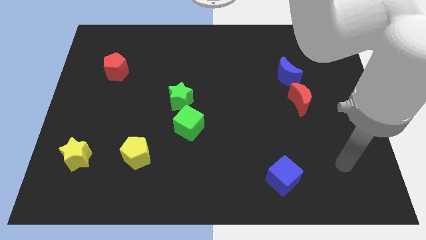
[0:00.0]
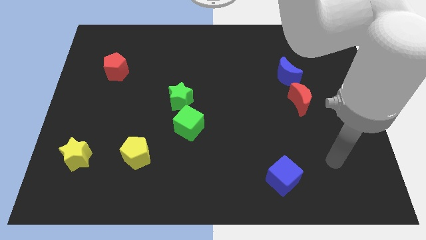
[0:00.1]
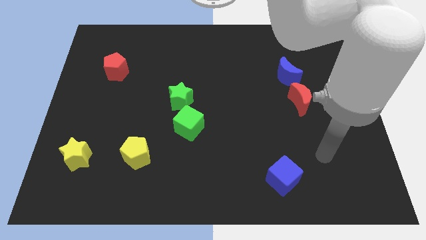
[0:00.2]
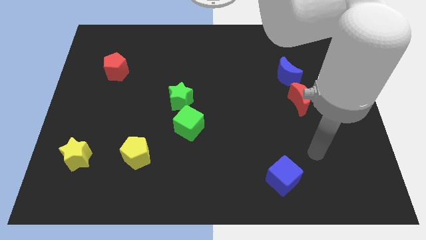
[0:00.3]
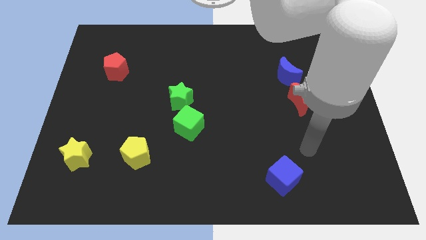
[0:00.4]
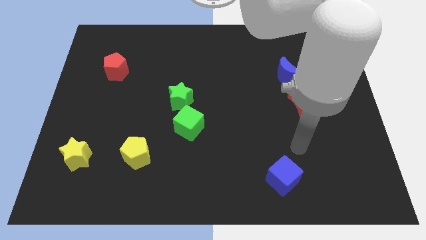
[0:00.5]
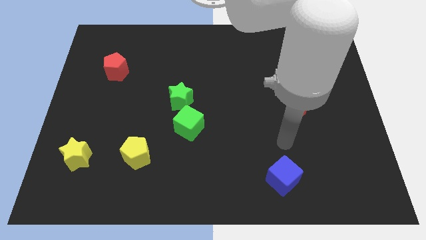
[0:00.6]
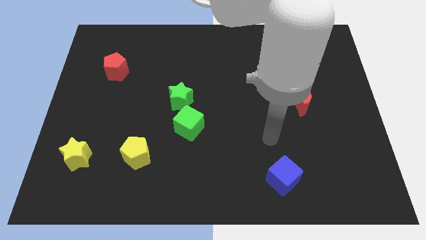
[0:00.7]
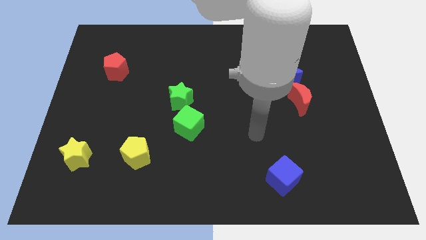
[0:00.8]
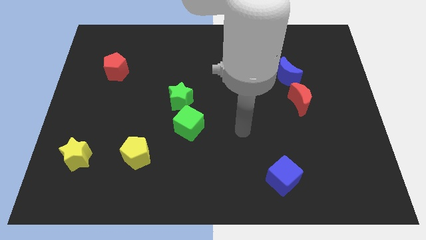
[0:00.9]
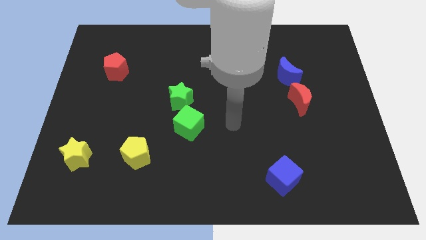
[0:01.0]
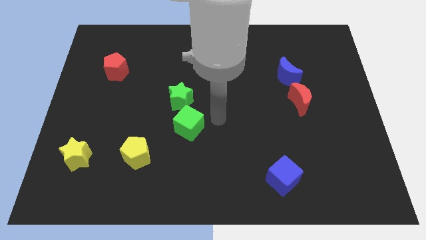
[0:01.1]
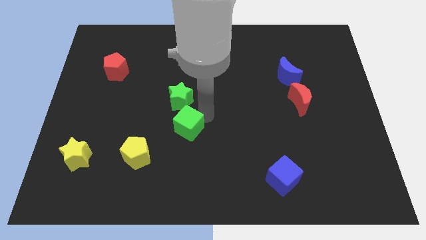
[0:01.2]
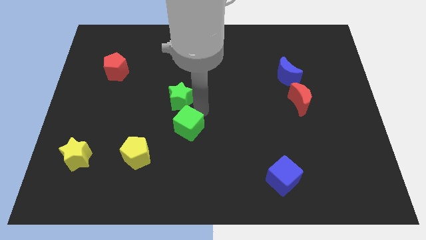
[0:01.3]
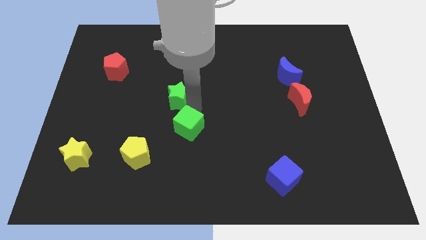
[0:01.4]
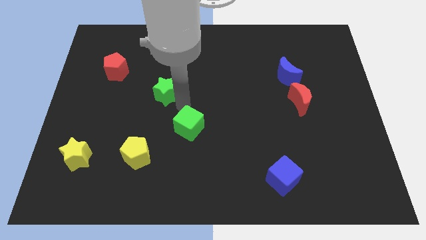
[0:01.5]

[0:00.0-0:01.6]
pull the green cube apart from the green star

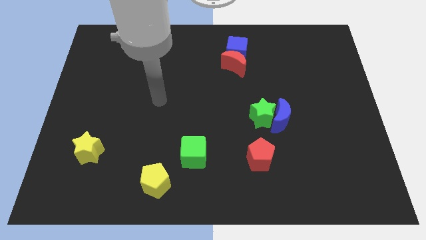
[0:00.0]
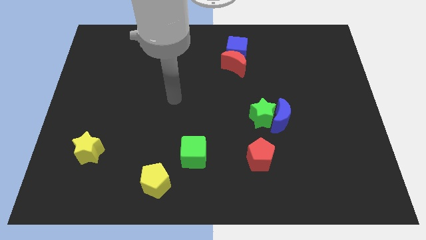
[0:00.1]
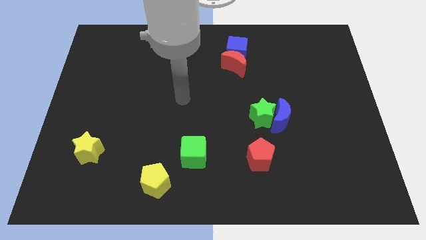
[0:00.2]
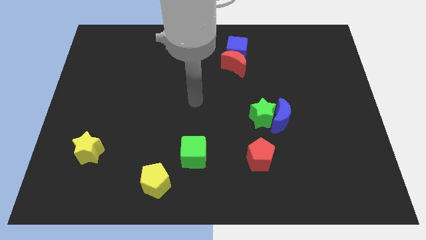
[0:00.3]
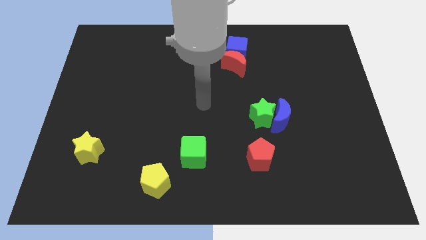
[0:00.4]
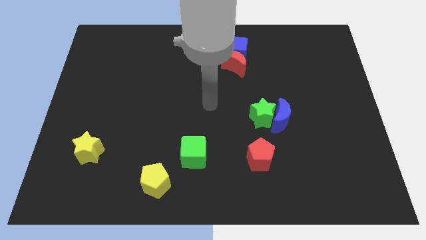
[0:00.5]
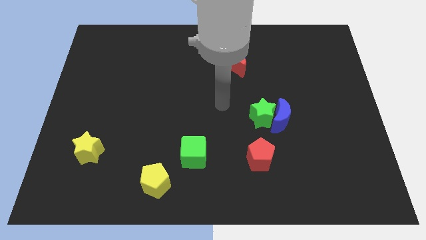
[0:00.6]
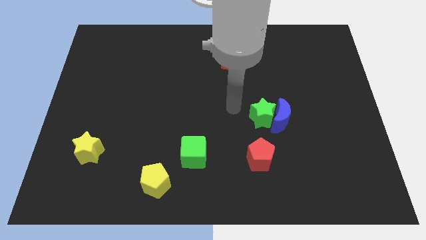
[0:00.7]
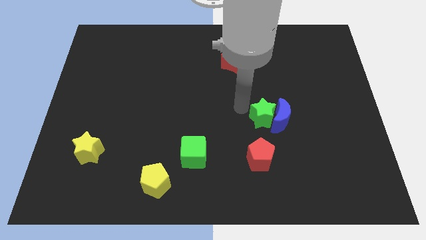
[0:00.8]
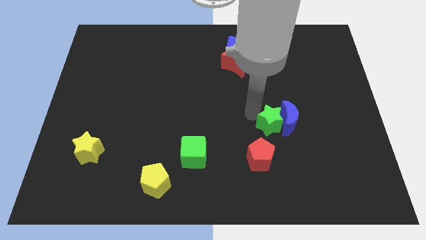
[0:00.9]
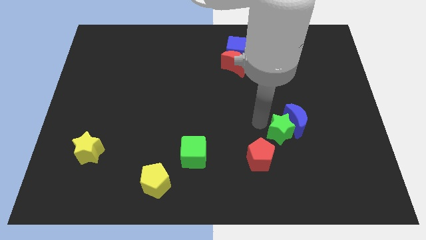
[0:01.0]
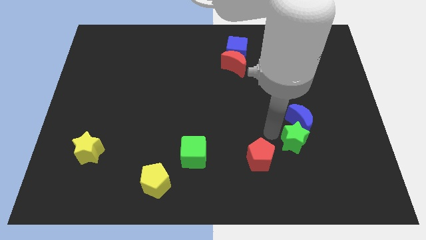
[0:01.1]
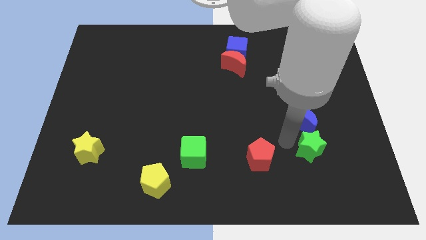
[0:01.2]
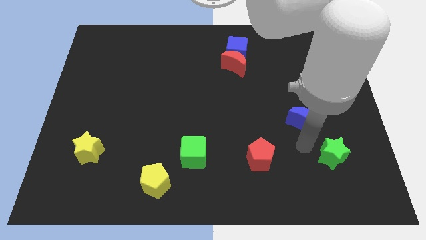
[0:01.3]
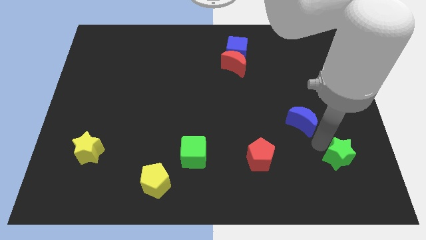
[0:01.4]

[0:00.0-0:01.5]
move the blue moon away from the green star

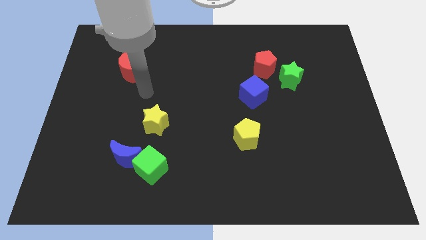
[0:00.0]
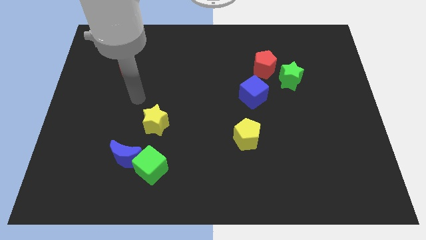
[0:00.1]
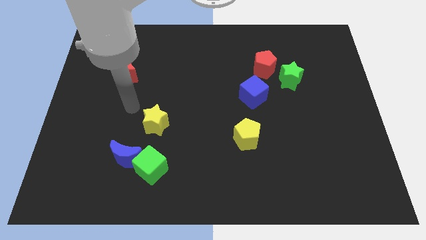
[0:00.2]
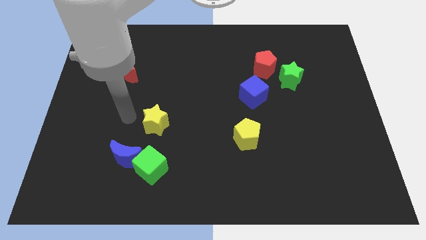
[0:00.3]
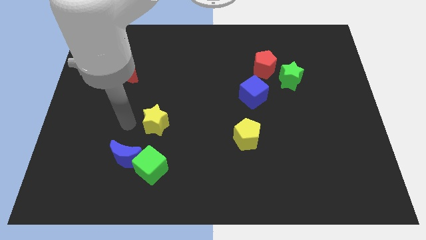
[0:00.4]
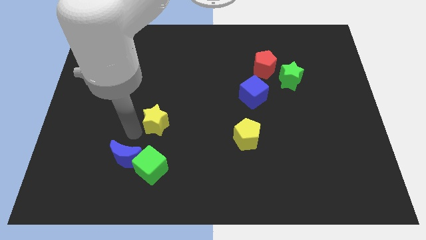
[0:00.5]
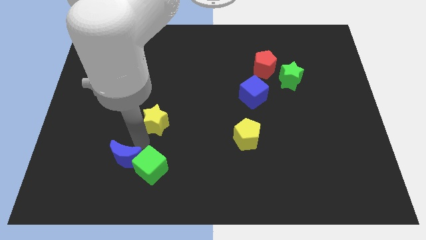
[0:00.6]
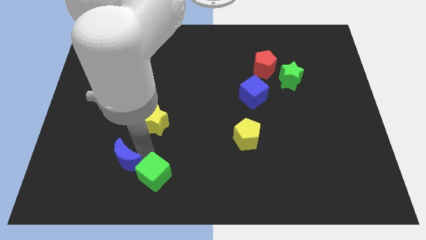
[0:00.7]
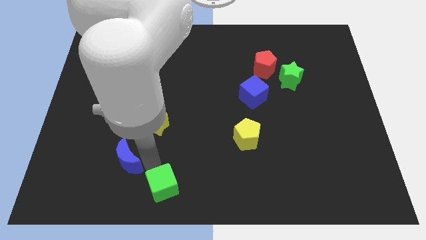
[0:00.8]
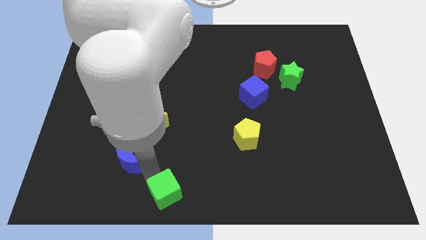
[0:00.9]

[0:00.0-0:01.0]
move the blue moon away from the green cube

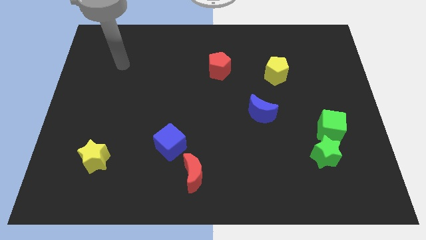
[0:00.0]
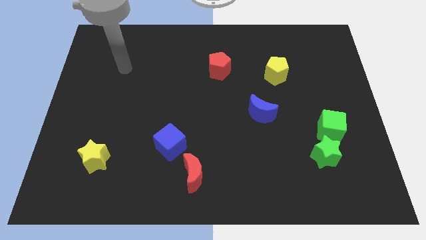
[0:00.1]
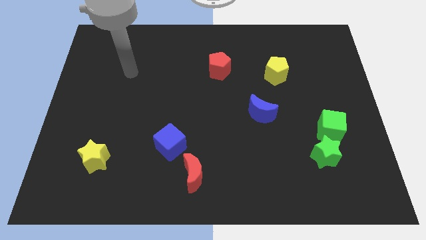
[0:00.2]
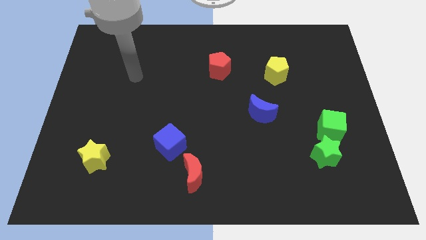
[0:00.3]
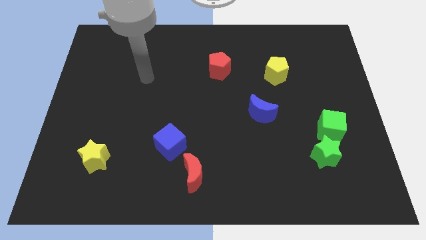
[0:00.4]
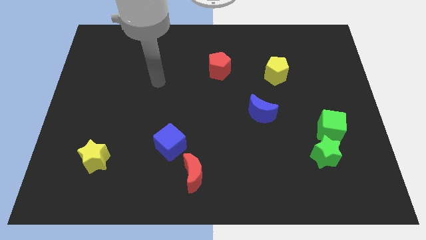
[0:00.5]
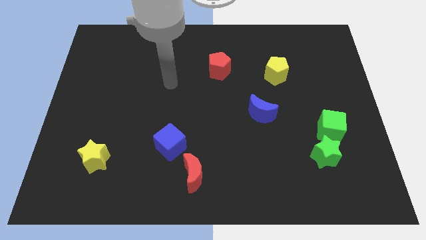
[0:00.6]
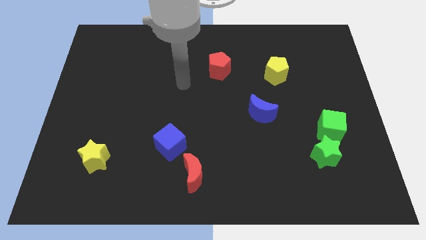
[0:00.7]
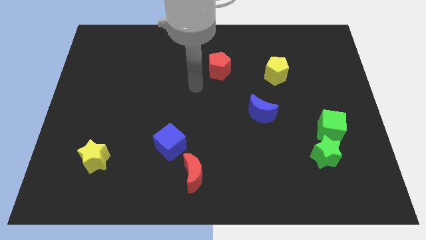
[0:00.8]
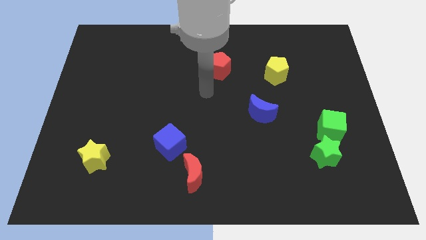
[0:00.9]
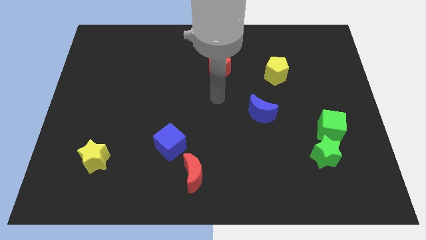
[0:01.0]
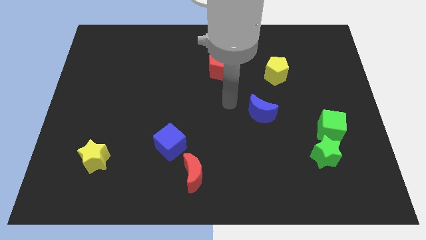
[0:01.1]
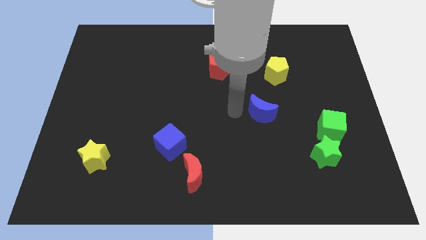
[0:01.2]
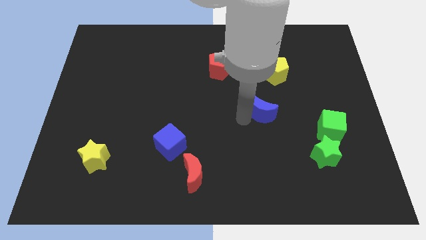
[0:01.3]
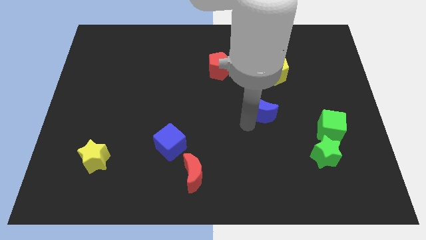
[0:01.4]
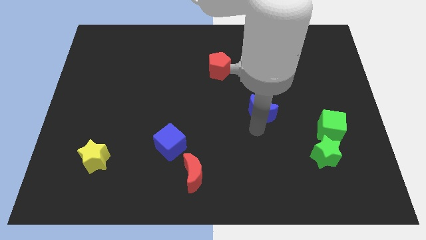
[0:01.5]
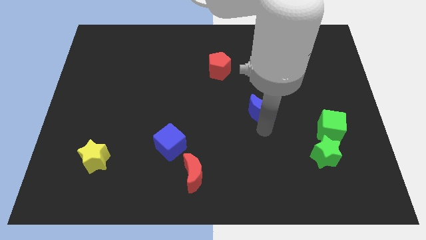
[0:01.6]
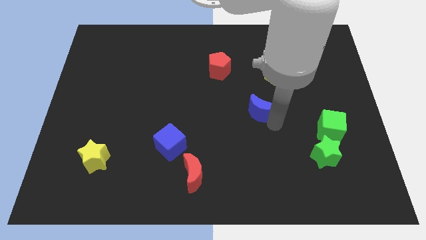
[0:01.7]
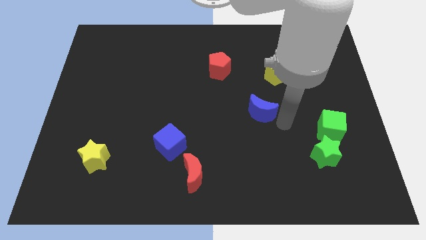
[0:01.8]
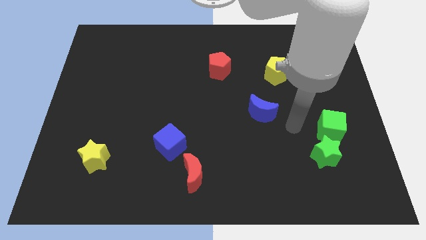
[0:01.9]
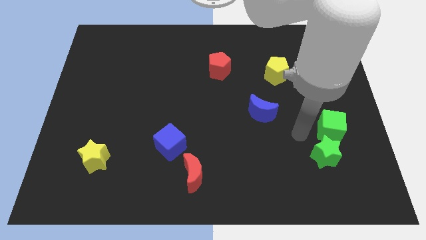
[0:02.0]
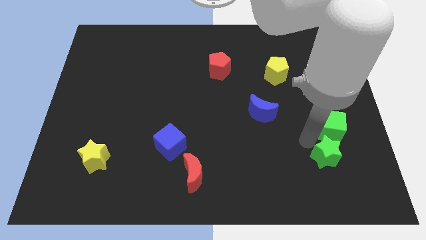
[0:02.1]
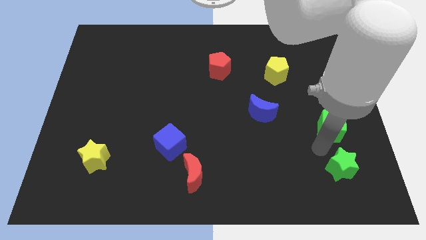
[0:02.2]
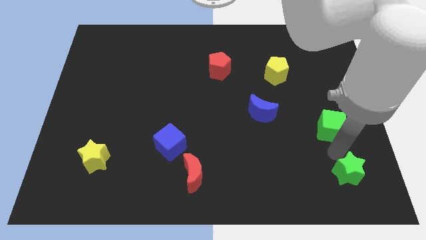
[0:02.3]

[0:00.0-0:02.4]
separate the green cube from the green star

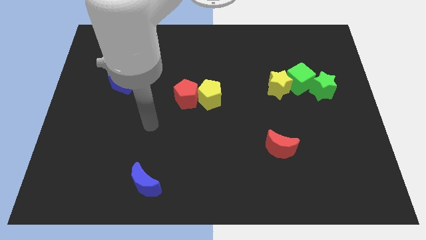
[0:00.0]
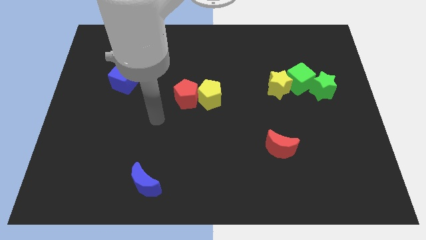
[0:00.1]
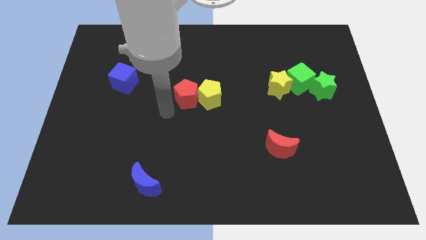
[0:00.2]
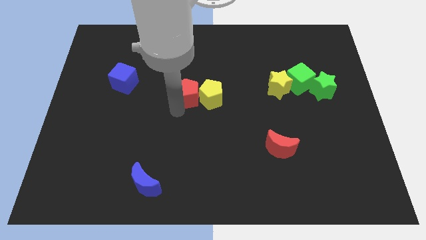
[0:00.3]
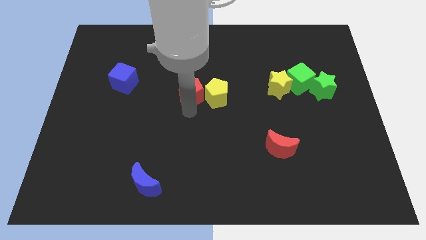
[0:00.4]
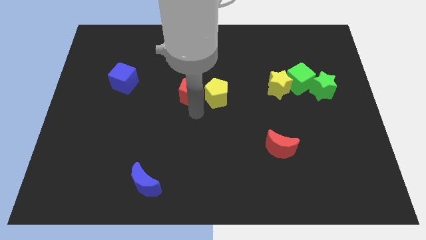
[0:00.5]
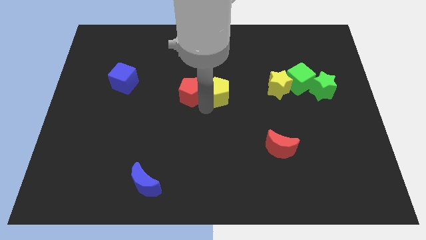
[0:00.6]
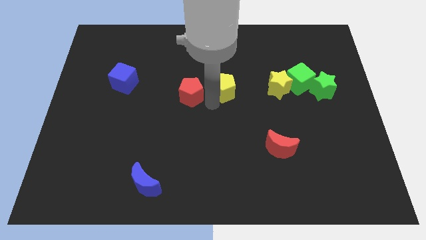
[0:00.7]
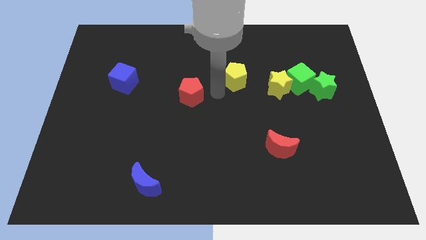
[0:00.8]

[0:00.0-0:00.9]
pull the red pentagon apart from the yellow pentagon

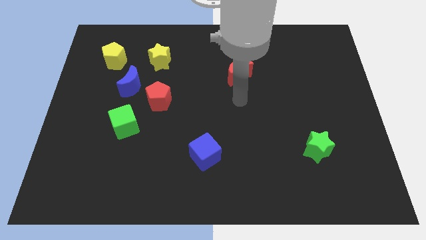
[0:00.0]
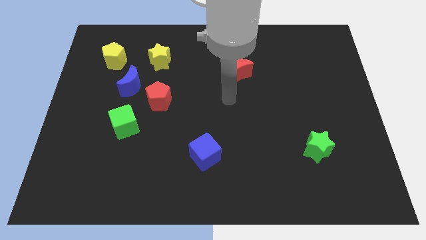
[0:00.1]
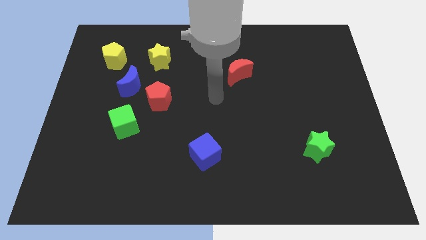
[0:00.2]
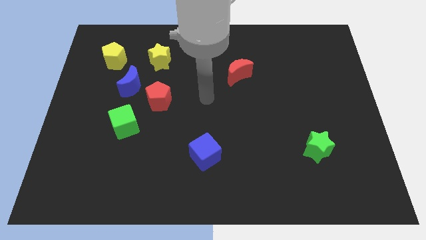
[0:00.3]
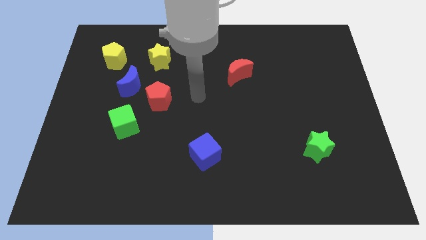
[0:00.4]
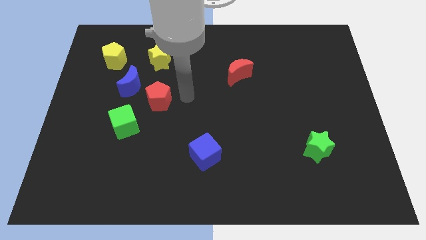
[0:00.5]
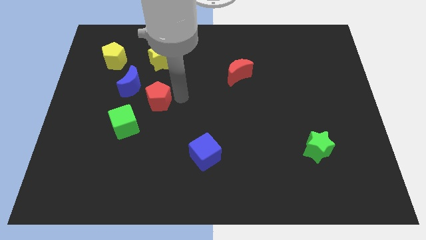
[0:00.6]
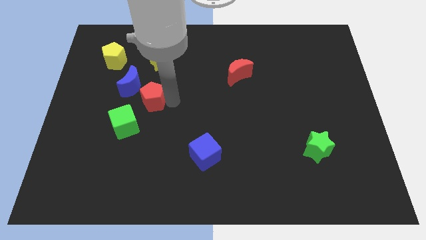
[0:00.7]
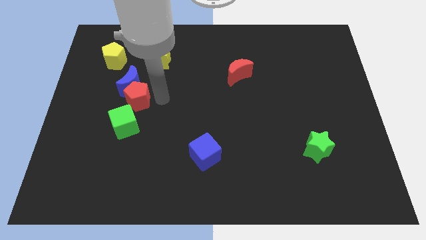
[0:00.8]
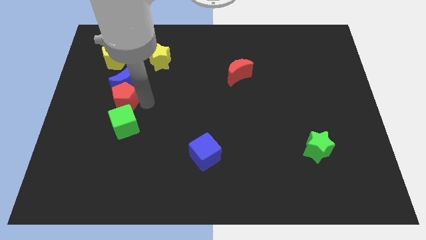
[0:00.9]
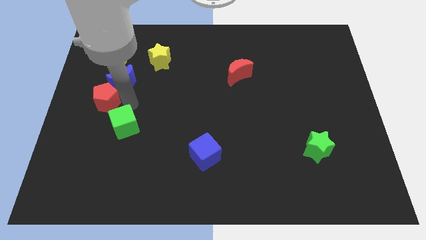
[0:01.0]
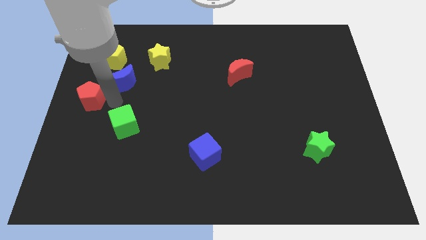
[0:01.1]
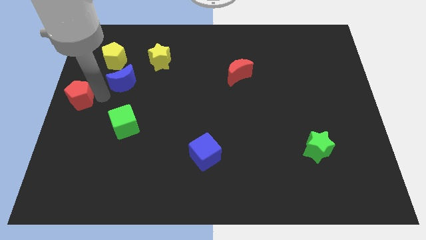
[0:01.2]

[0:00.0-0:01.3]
separate the blue moon from the red pentagon

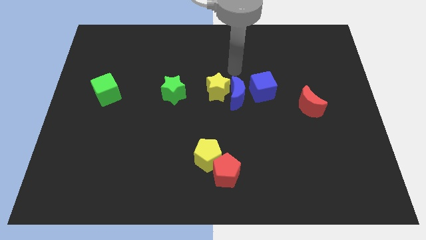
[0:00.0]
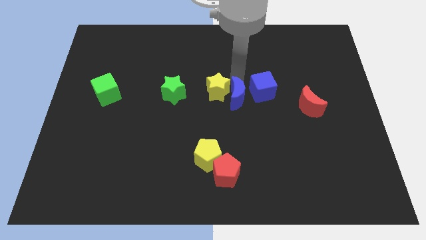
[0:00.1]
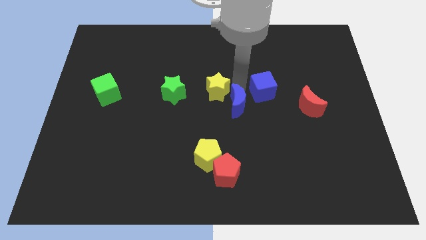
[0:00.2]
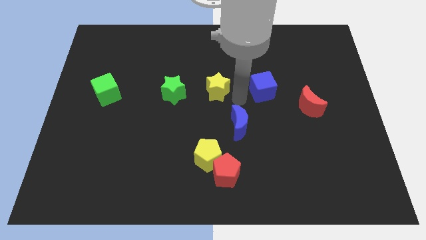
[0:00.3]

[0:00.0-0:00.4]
move the yellow star away from the blue moon

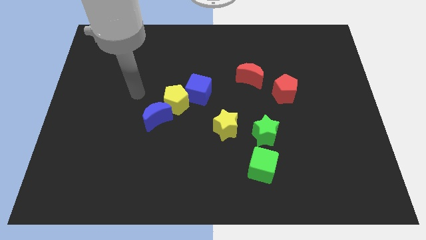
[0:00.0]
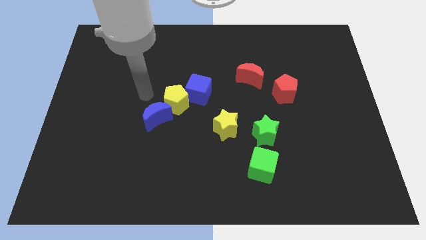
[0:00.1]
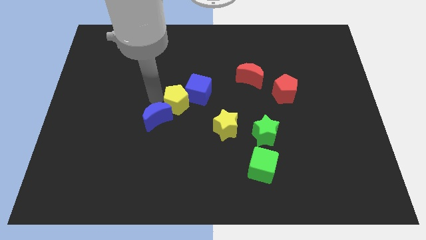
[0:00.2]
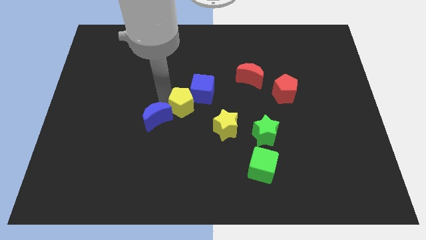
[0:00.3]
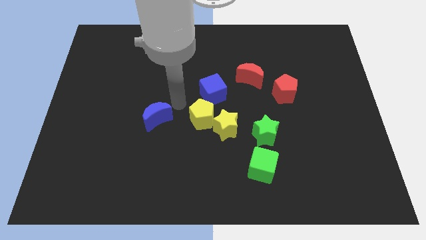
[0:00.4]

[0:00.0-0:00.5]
pull the blue moon apart from the yellow pentagon
